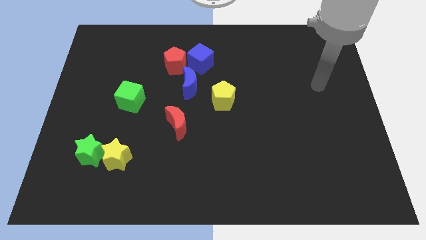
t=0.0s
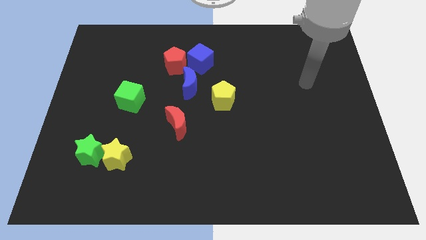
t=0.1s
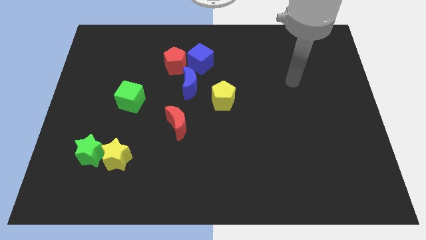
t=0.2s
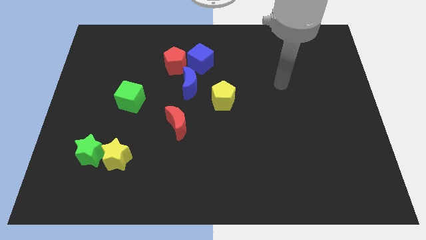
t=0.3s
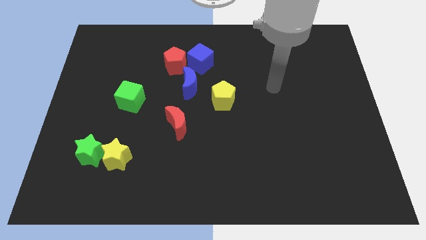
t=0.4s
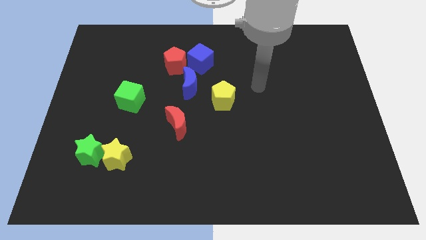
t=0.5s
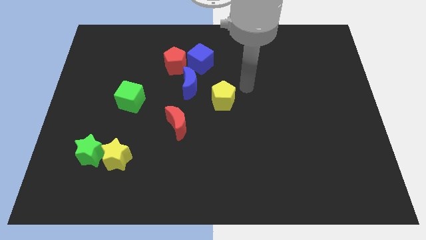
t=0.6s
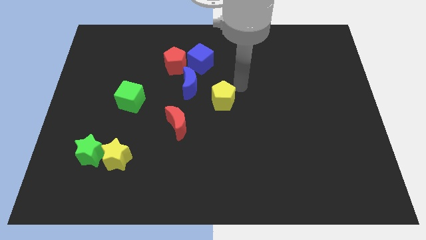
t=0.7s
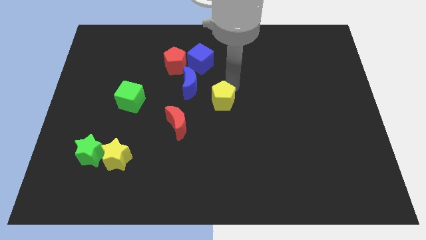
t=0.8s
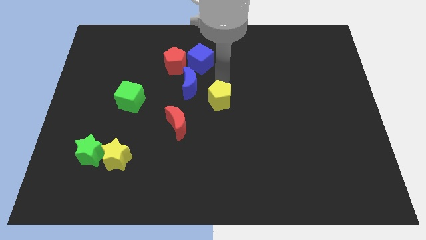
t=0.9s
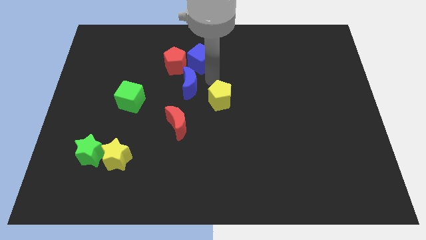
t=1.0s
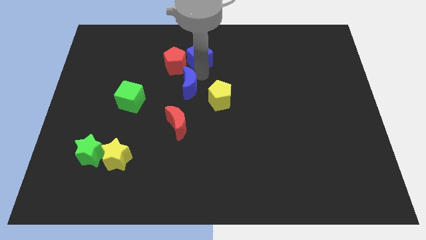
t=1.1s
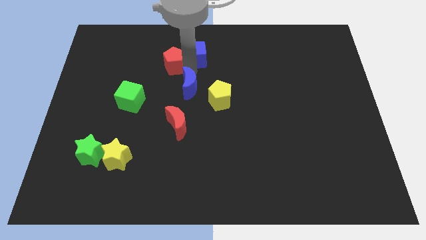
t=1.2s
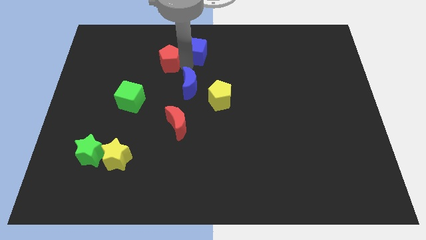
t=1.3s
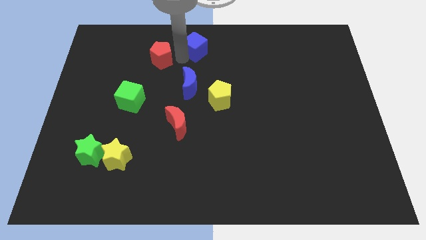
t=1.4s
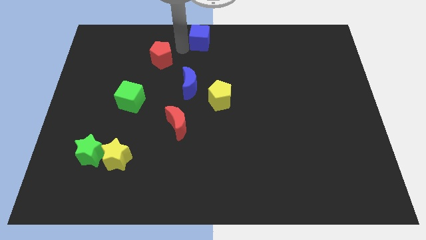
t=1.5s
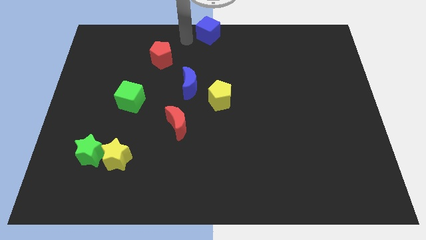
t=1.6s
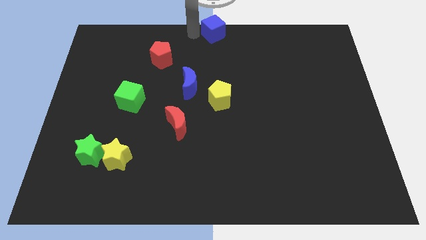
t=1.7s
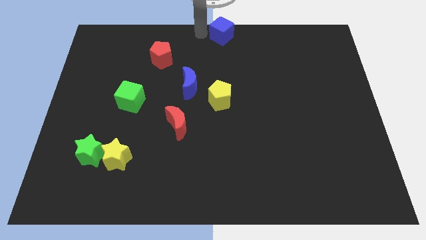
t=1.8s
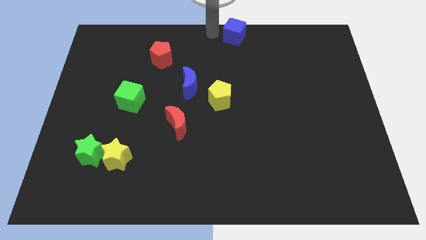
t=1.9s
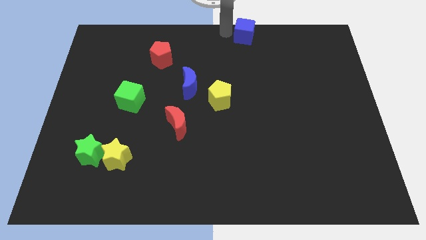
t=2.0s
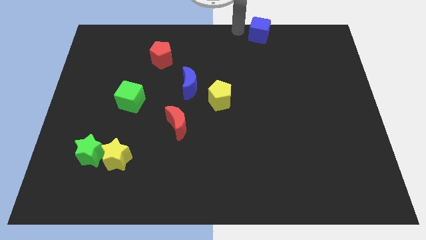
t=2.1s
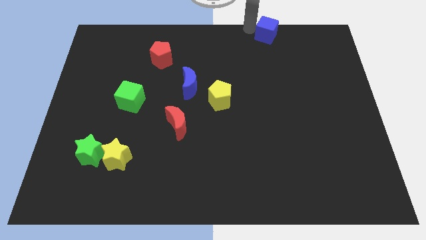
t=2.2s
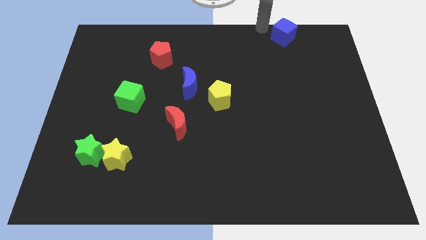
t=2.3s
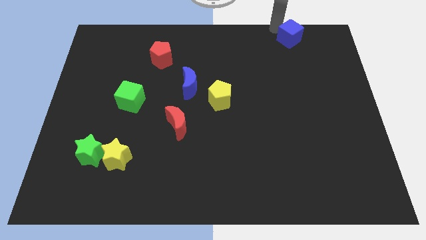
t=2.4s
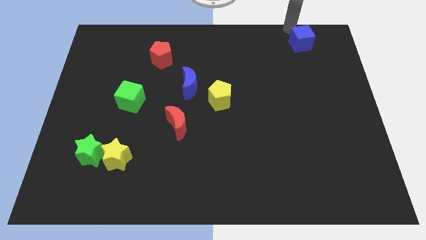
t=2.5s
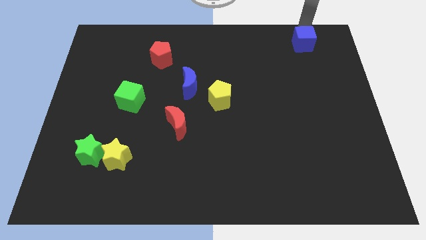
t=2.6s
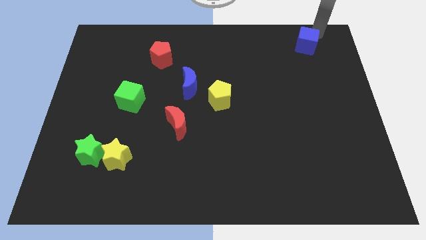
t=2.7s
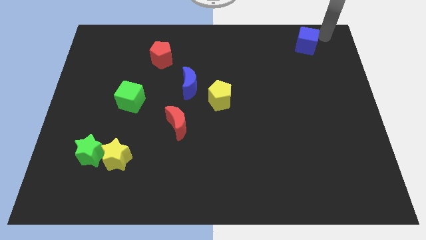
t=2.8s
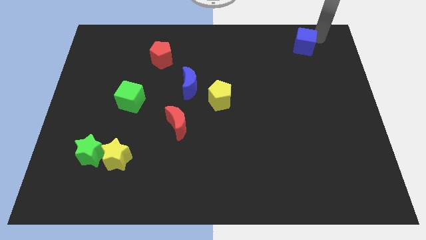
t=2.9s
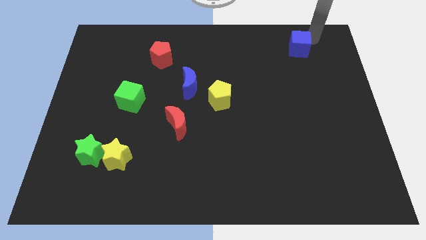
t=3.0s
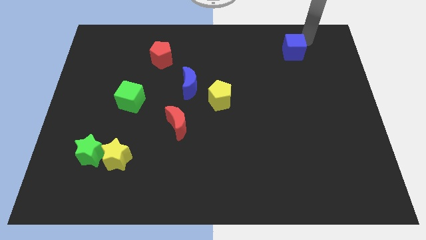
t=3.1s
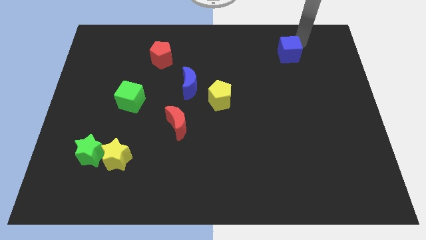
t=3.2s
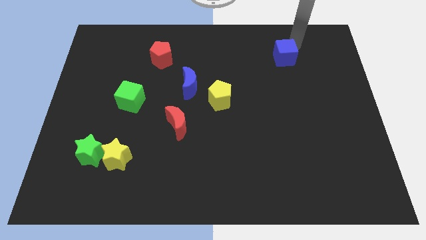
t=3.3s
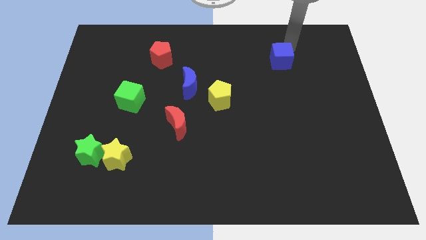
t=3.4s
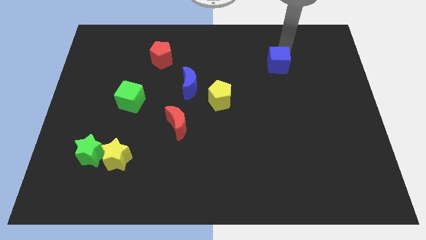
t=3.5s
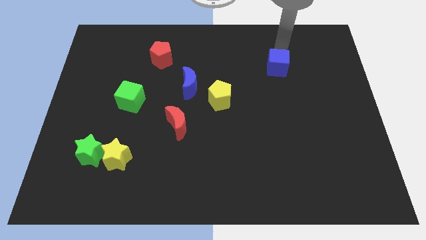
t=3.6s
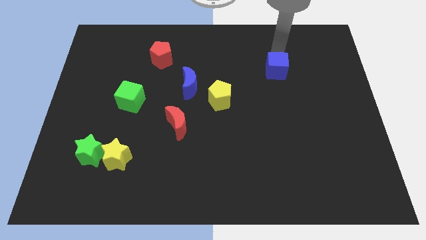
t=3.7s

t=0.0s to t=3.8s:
slide the blue cube a little bit down and to the right

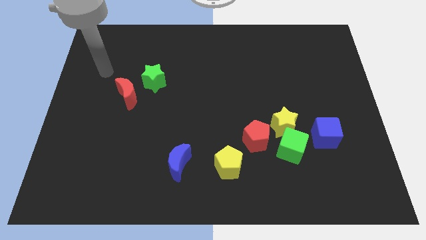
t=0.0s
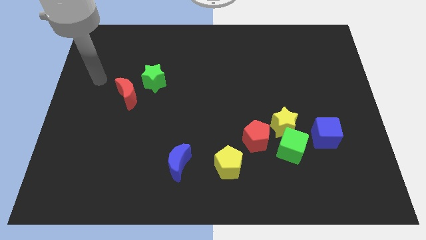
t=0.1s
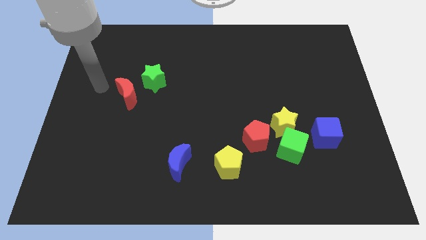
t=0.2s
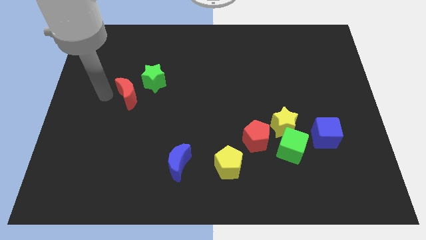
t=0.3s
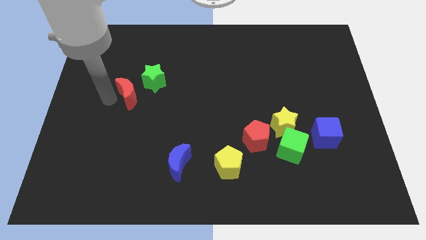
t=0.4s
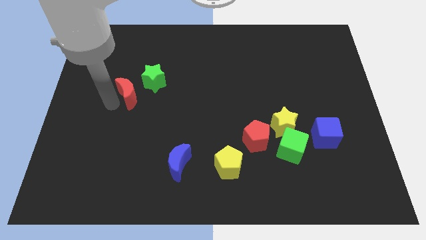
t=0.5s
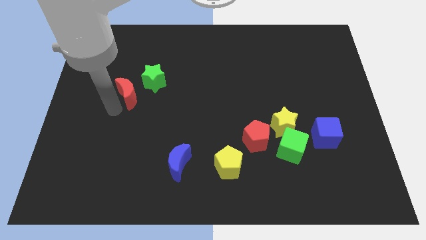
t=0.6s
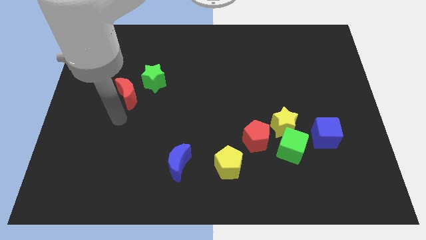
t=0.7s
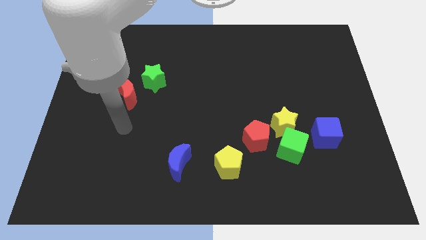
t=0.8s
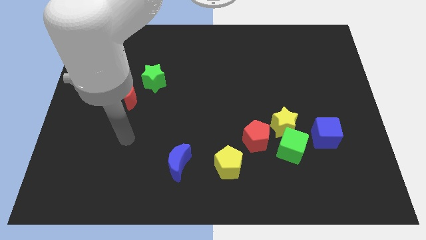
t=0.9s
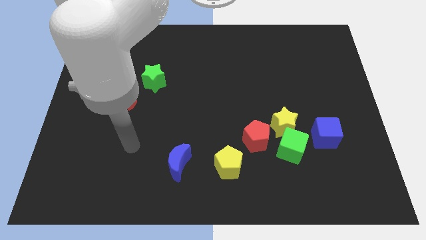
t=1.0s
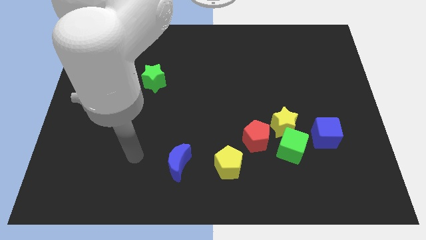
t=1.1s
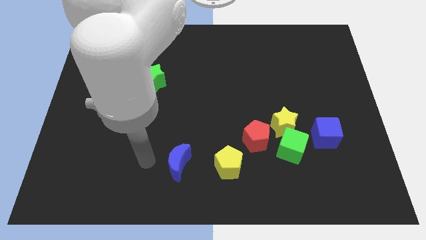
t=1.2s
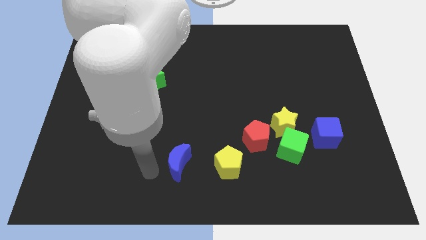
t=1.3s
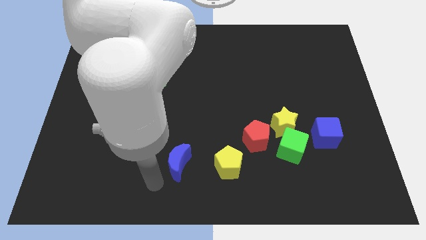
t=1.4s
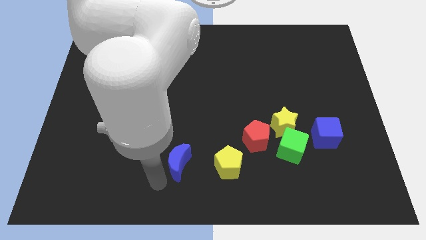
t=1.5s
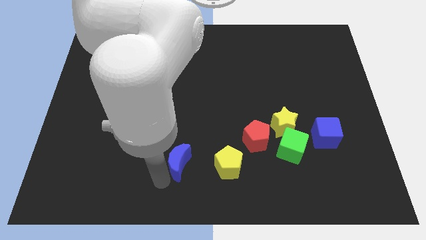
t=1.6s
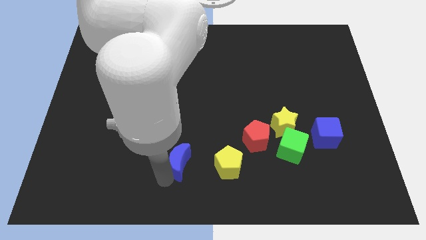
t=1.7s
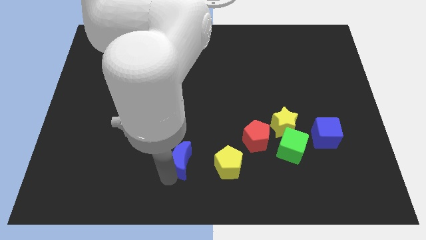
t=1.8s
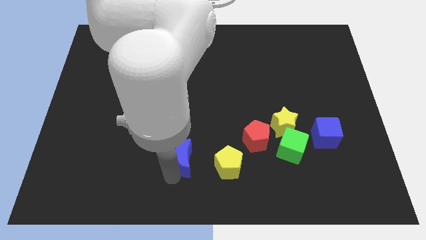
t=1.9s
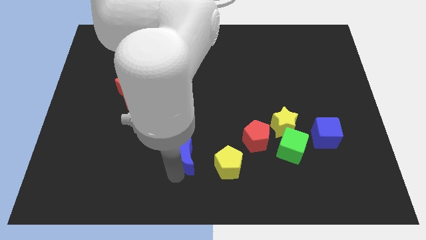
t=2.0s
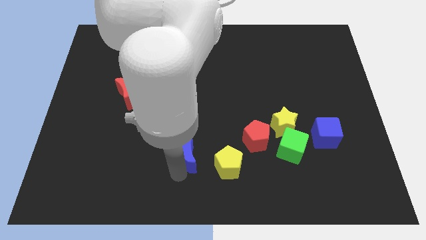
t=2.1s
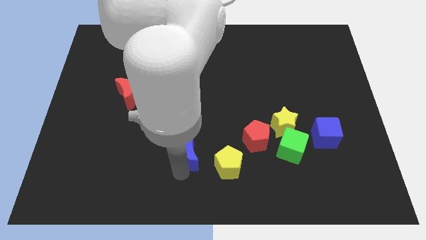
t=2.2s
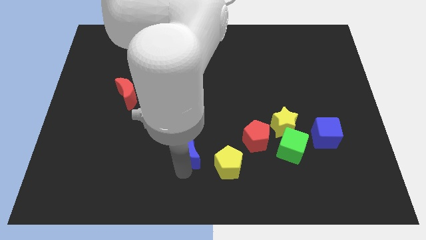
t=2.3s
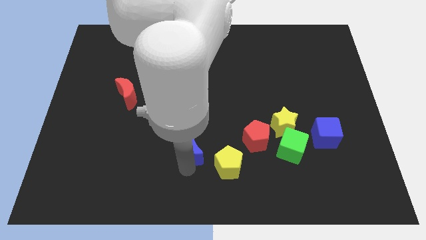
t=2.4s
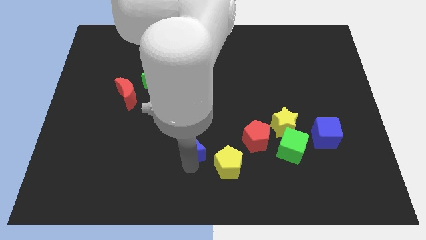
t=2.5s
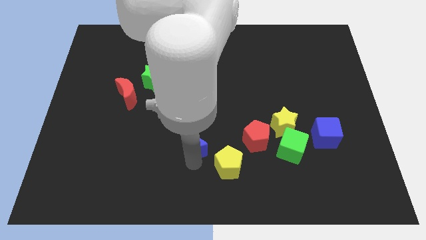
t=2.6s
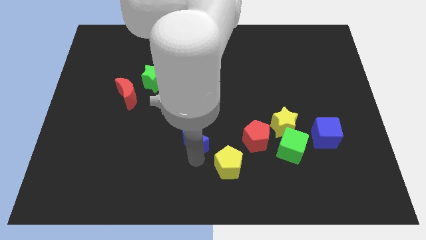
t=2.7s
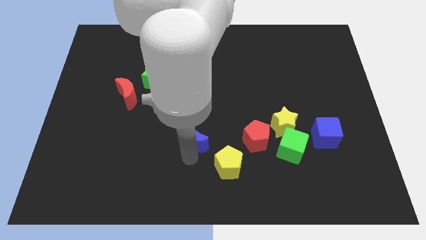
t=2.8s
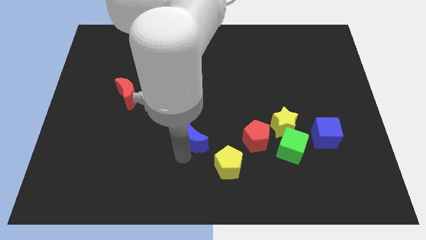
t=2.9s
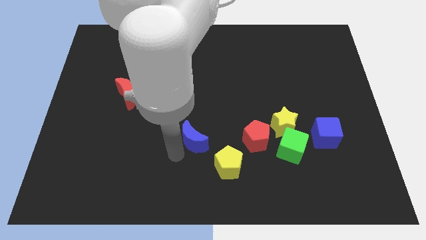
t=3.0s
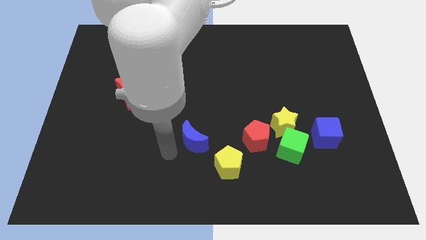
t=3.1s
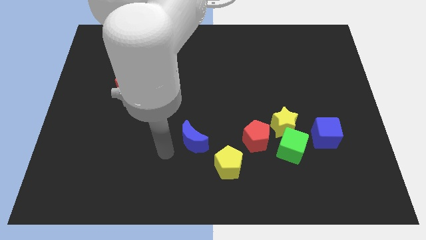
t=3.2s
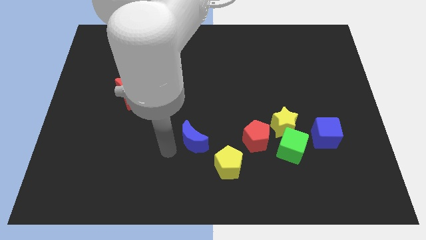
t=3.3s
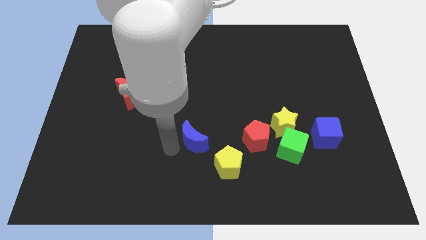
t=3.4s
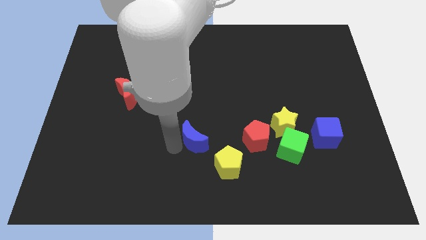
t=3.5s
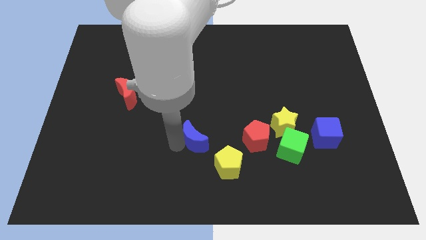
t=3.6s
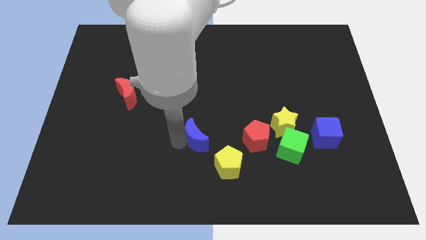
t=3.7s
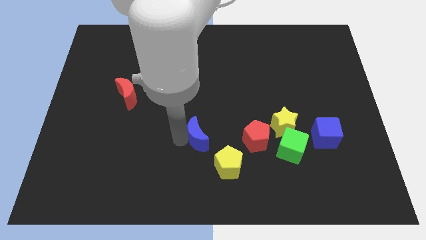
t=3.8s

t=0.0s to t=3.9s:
push the blue moon upwards and to the right diagonally a little

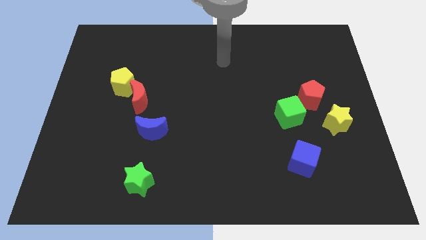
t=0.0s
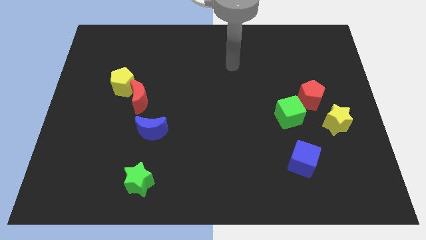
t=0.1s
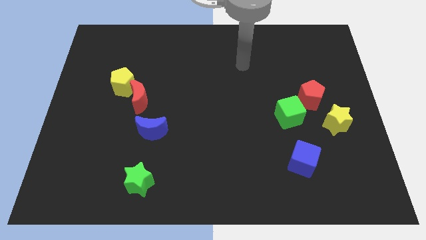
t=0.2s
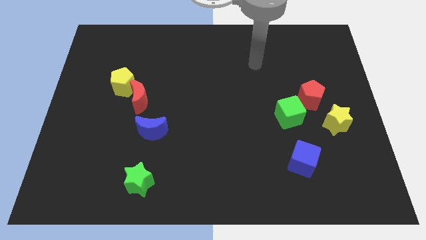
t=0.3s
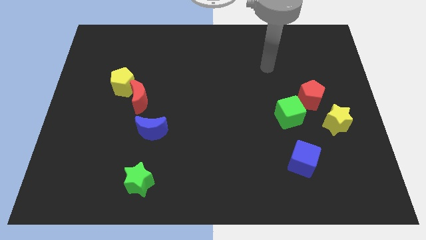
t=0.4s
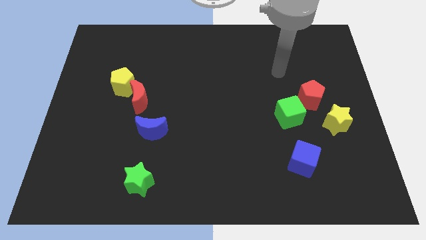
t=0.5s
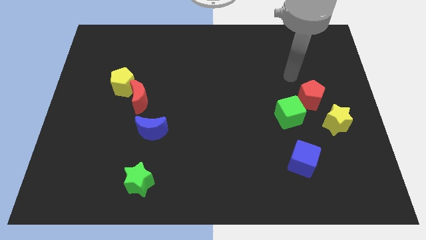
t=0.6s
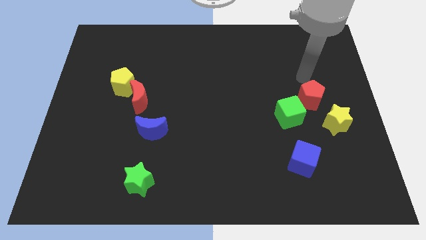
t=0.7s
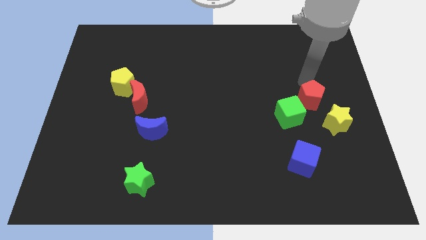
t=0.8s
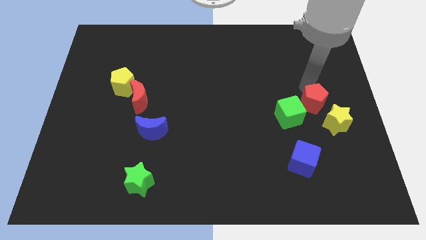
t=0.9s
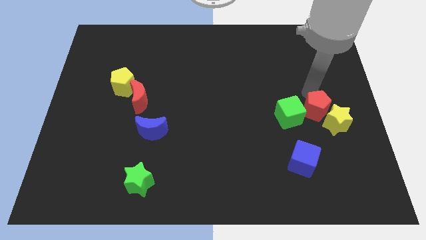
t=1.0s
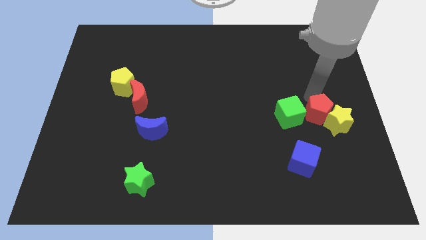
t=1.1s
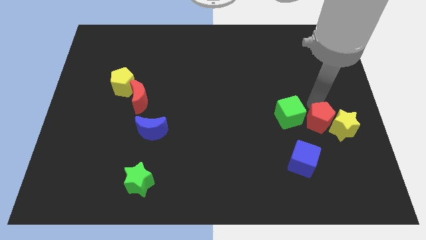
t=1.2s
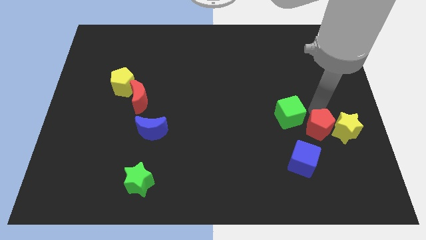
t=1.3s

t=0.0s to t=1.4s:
slightly slide the red pentagon down
